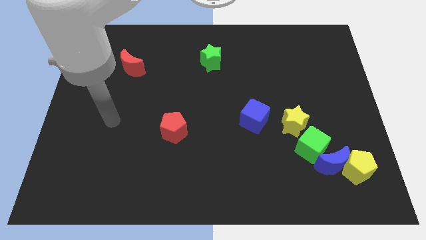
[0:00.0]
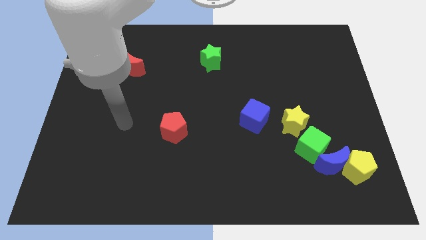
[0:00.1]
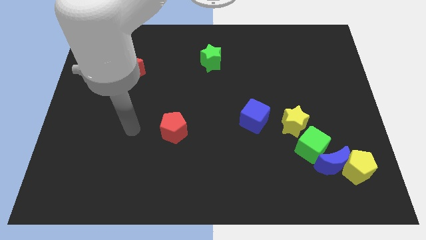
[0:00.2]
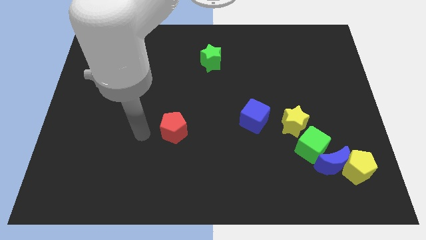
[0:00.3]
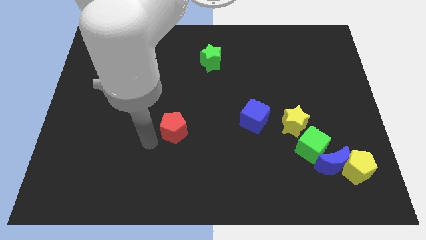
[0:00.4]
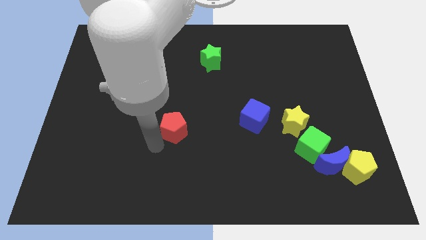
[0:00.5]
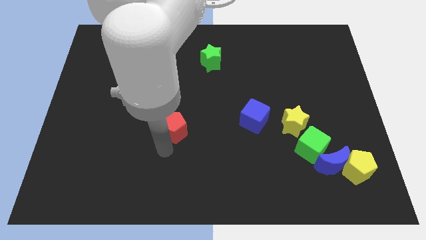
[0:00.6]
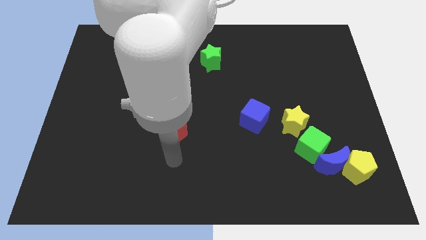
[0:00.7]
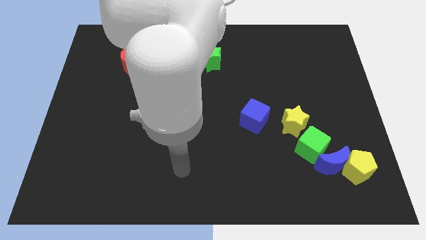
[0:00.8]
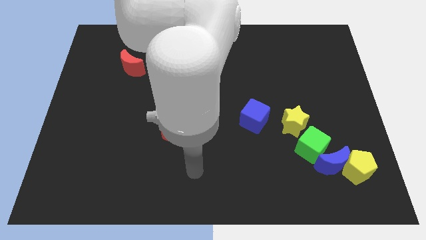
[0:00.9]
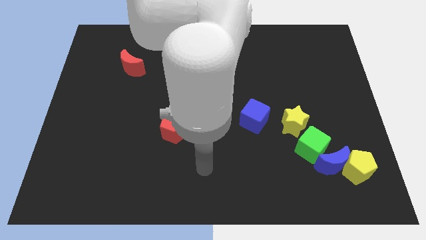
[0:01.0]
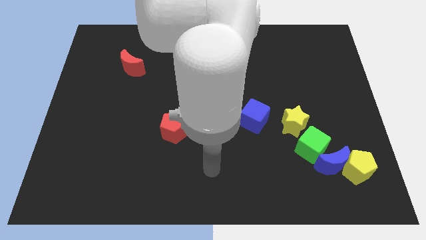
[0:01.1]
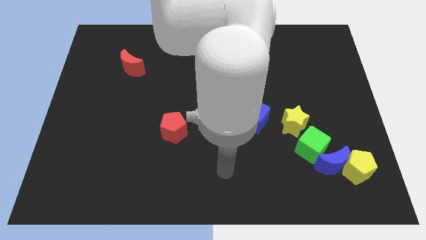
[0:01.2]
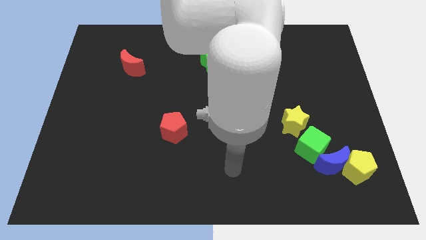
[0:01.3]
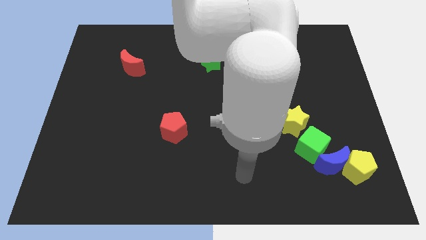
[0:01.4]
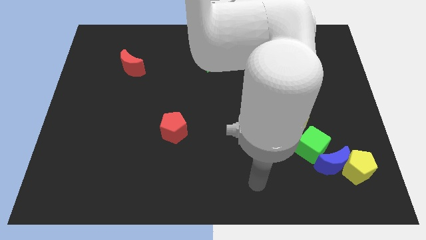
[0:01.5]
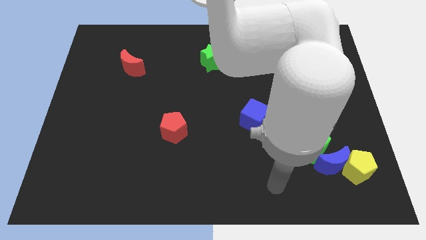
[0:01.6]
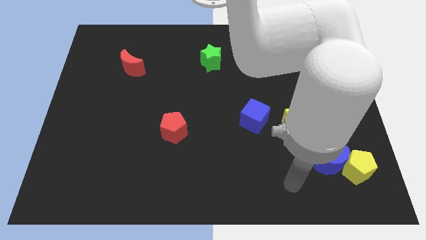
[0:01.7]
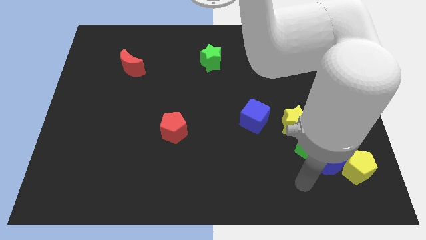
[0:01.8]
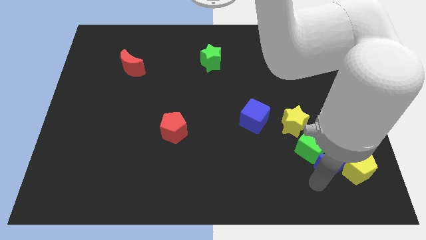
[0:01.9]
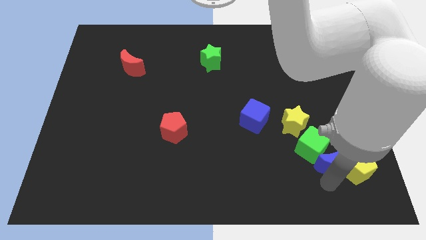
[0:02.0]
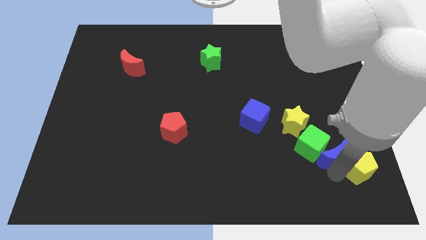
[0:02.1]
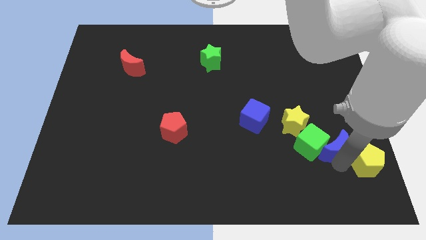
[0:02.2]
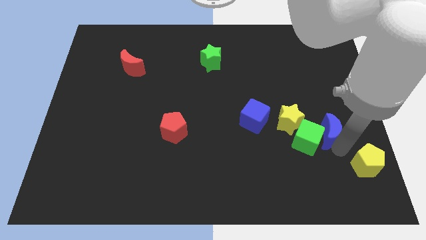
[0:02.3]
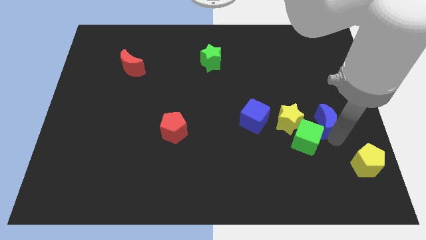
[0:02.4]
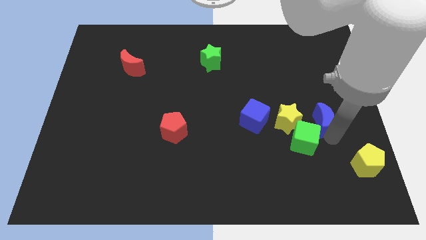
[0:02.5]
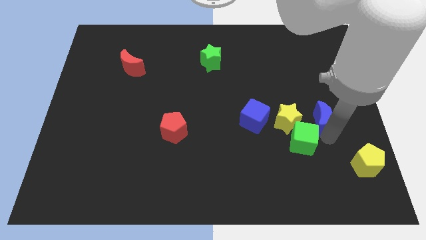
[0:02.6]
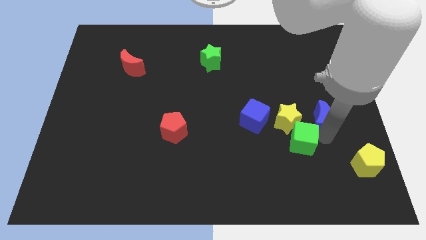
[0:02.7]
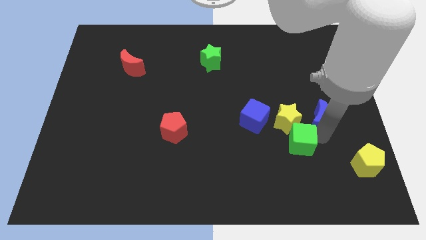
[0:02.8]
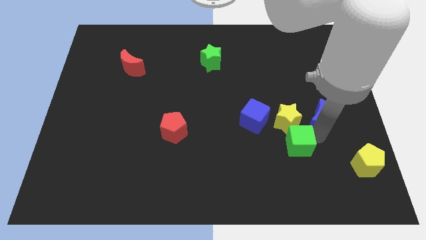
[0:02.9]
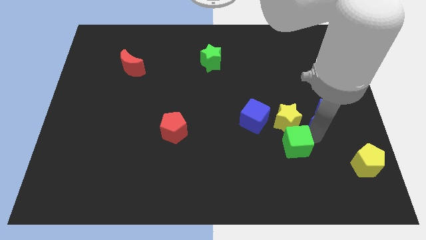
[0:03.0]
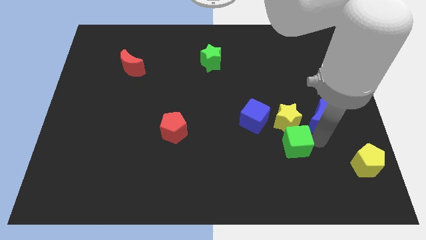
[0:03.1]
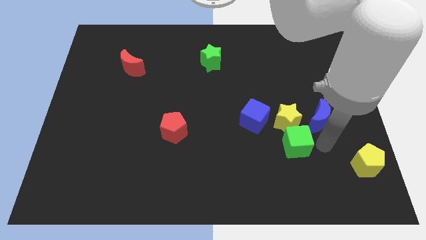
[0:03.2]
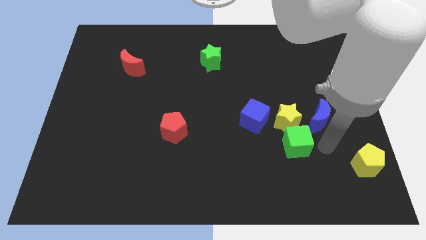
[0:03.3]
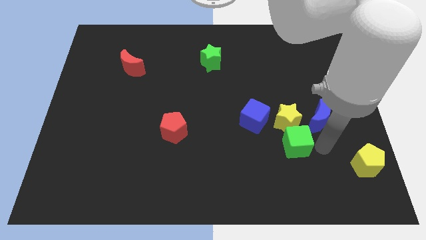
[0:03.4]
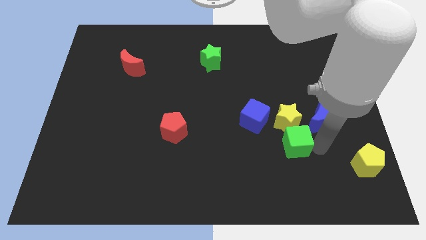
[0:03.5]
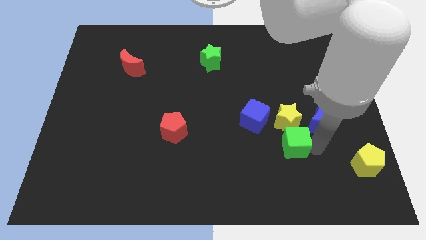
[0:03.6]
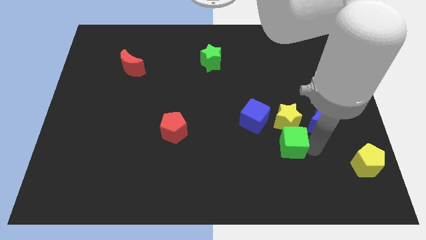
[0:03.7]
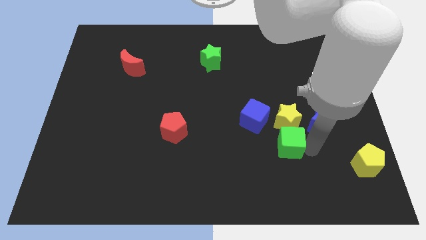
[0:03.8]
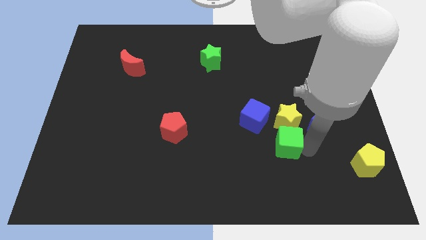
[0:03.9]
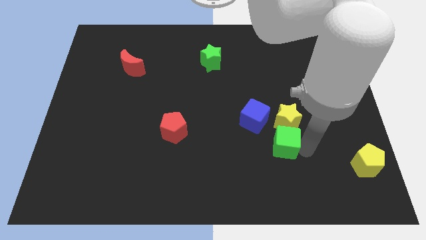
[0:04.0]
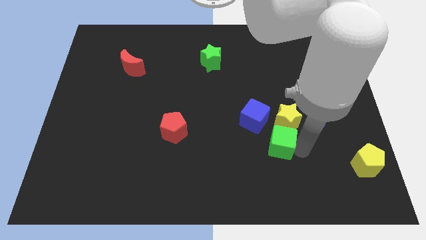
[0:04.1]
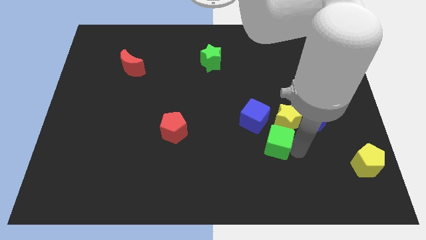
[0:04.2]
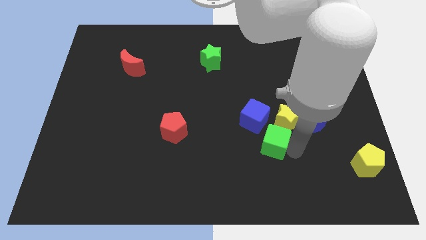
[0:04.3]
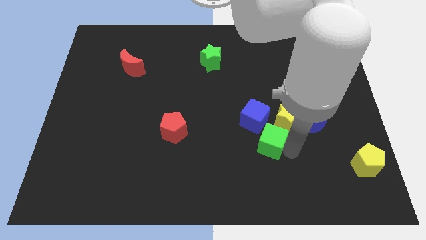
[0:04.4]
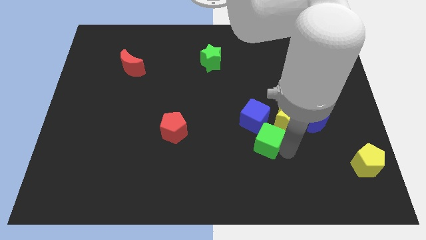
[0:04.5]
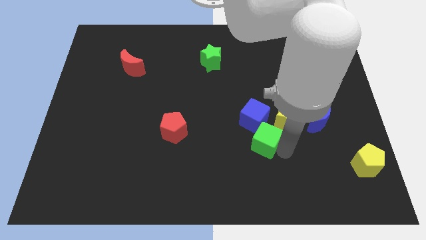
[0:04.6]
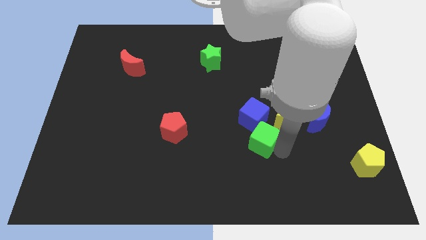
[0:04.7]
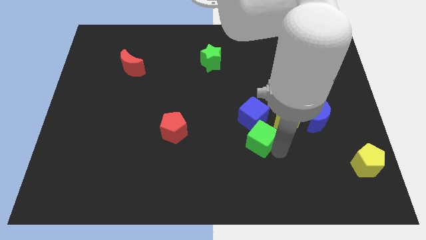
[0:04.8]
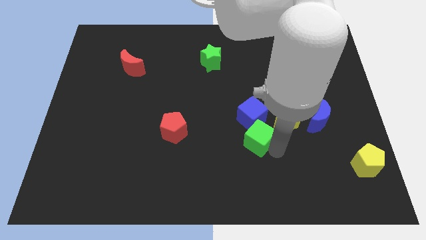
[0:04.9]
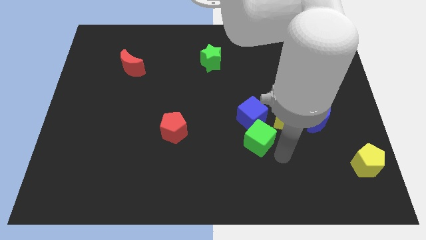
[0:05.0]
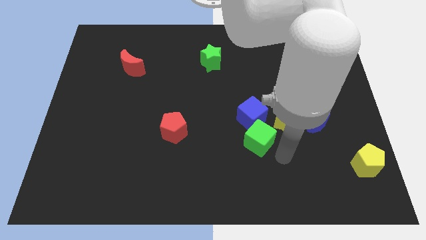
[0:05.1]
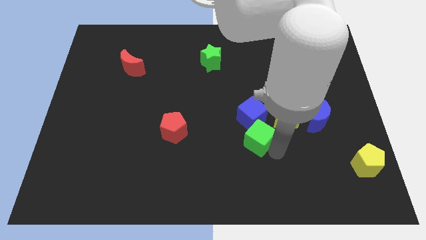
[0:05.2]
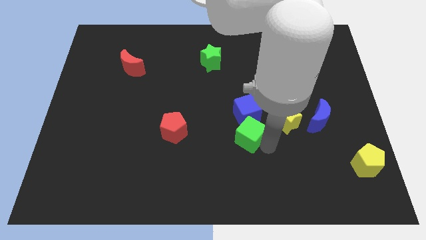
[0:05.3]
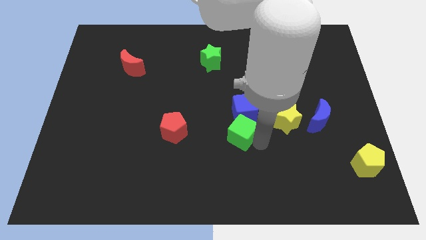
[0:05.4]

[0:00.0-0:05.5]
slide the green cube to the middle of the board

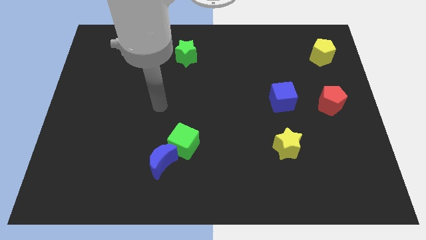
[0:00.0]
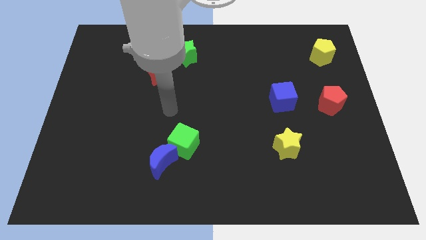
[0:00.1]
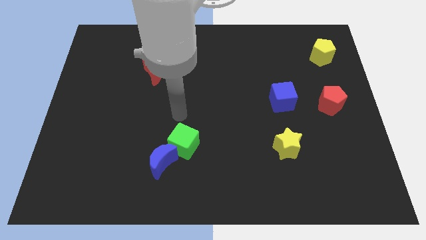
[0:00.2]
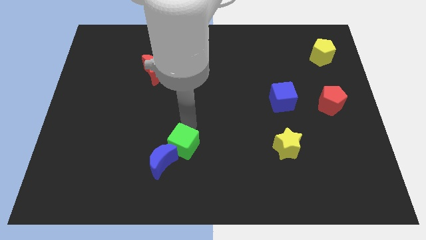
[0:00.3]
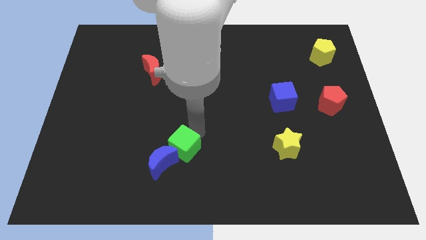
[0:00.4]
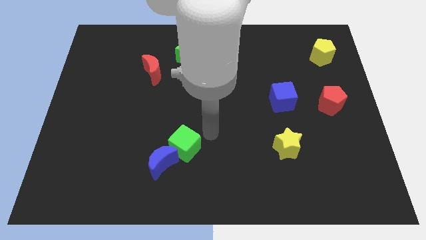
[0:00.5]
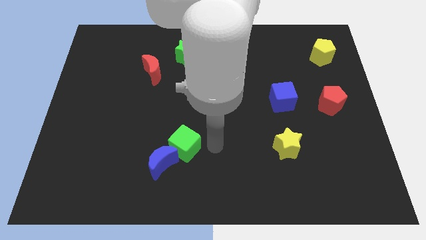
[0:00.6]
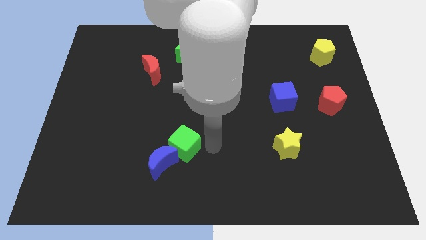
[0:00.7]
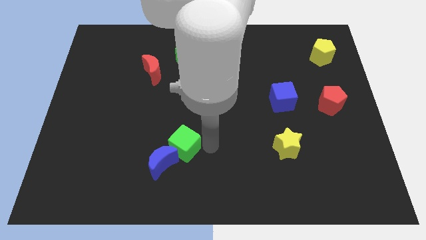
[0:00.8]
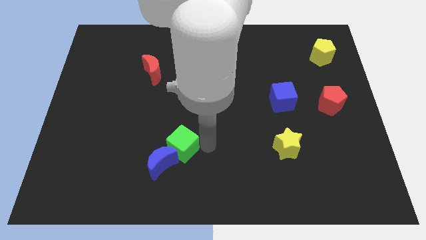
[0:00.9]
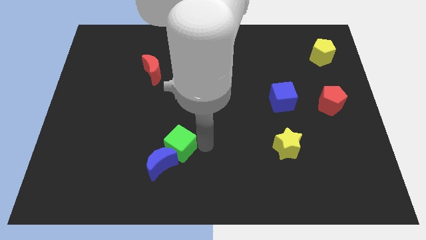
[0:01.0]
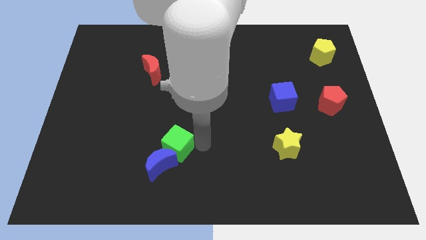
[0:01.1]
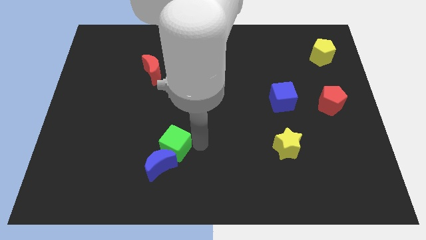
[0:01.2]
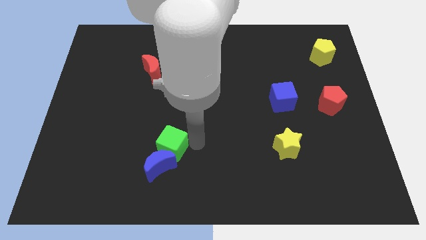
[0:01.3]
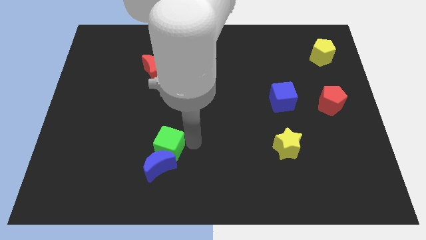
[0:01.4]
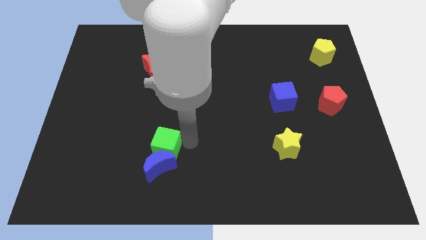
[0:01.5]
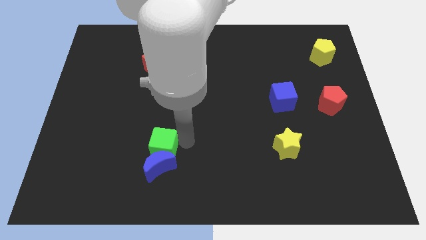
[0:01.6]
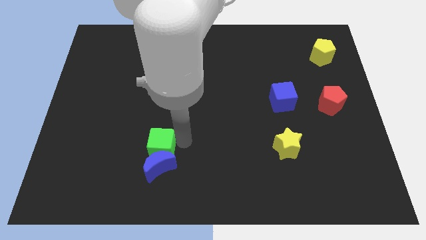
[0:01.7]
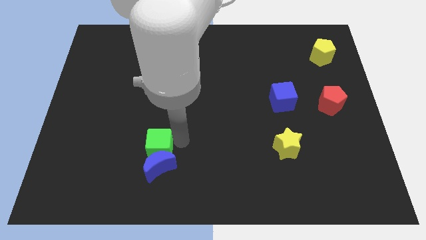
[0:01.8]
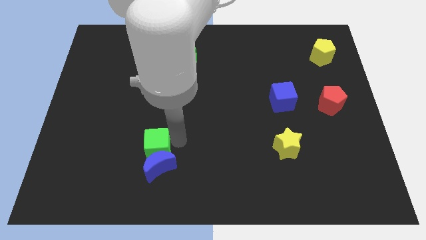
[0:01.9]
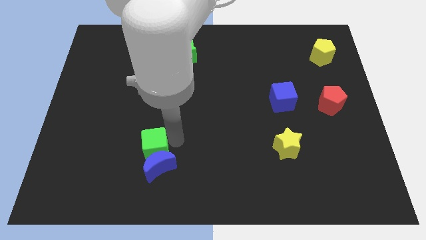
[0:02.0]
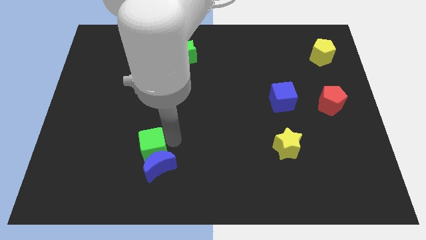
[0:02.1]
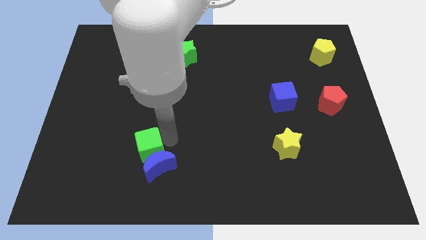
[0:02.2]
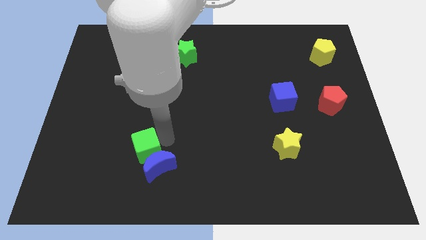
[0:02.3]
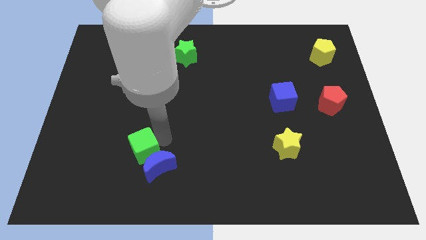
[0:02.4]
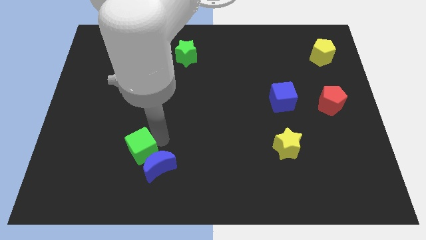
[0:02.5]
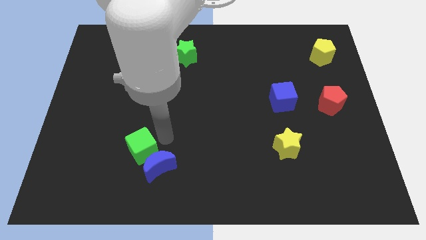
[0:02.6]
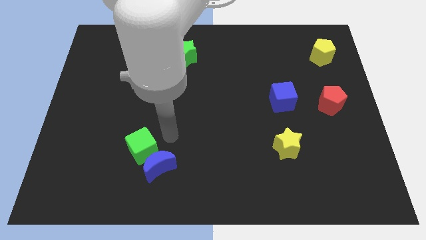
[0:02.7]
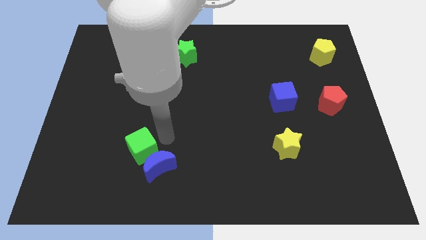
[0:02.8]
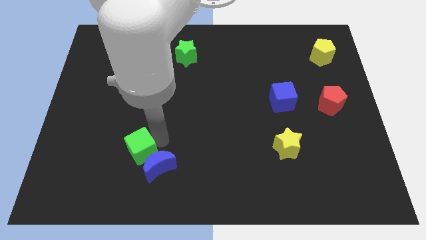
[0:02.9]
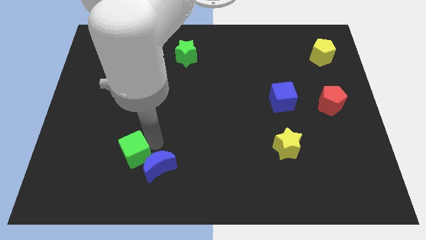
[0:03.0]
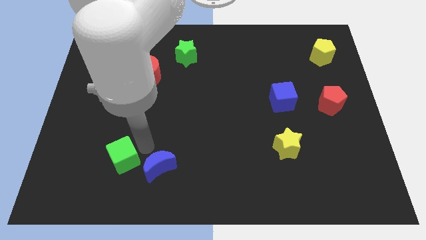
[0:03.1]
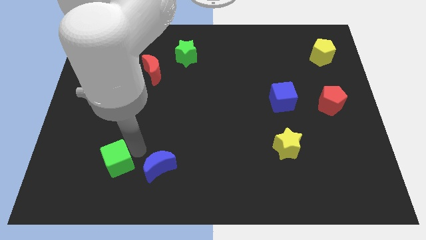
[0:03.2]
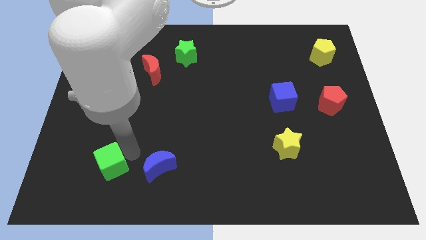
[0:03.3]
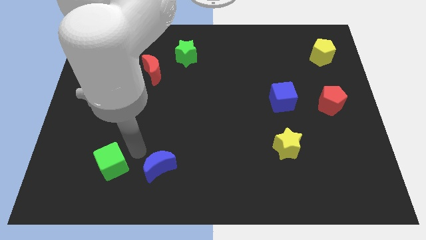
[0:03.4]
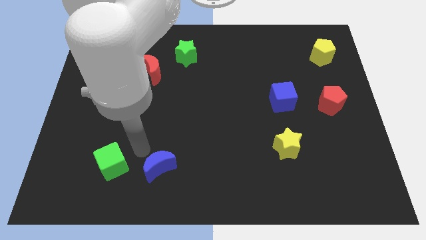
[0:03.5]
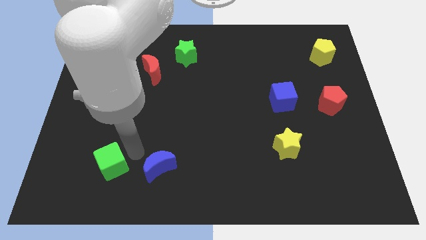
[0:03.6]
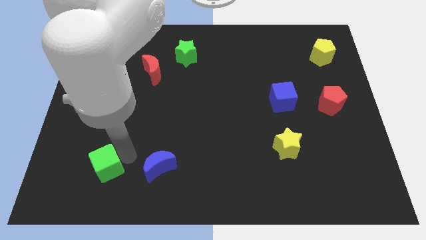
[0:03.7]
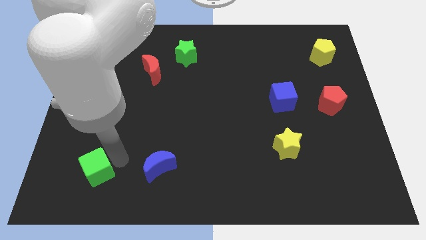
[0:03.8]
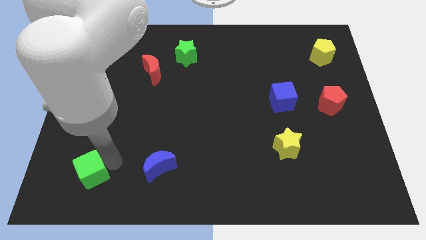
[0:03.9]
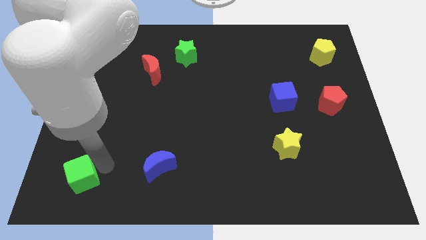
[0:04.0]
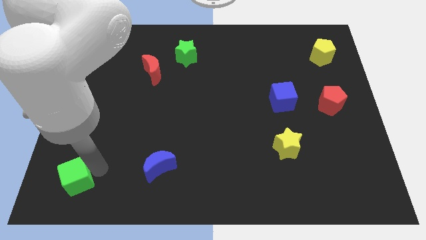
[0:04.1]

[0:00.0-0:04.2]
put the green cube to the bottom left corner
